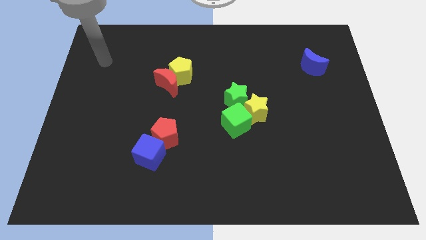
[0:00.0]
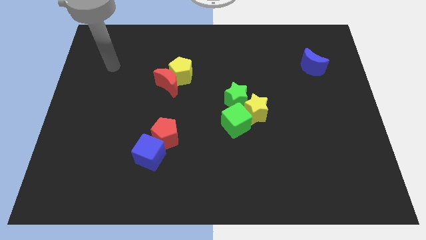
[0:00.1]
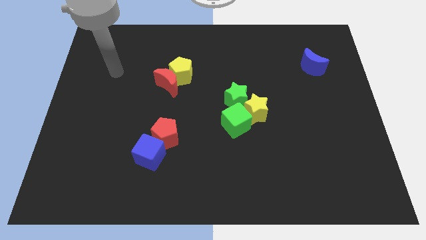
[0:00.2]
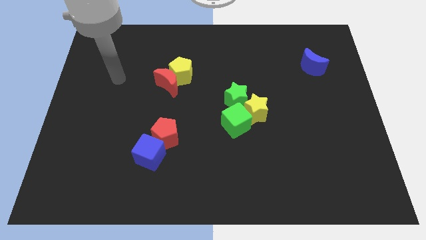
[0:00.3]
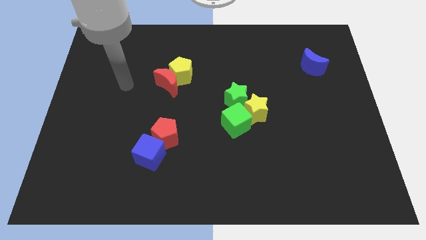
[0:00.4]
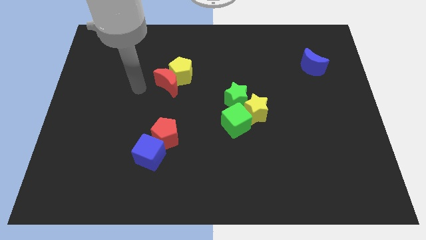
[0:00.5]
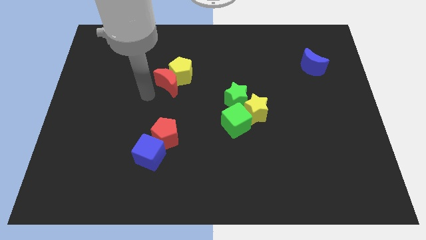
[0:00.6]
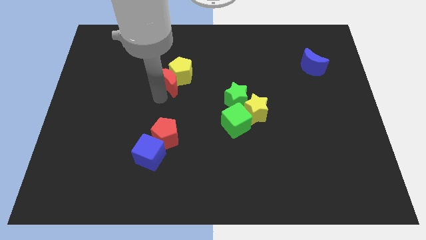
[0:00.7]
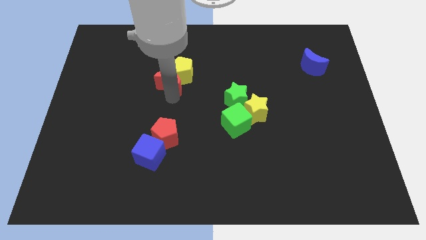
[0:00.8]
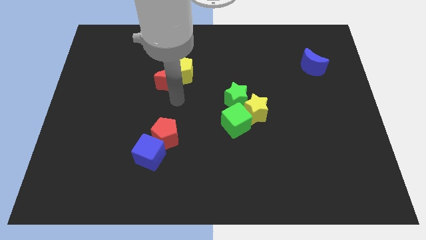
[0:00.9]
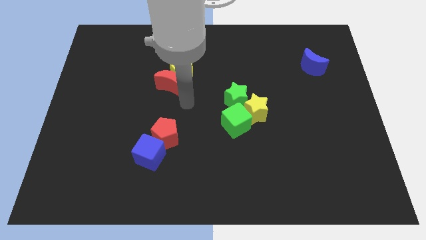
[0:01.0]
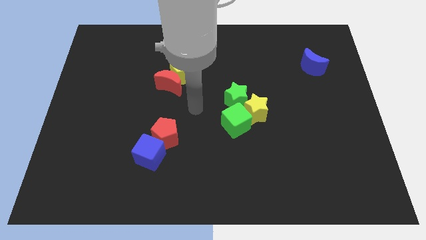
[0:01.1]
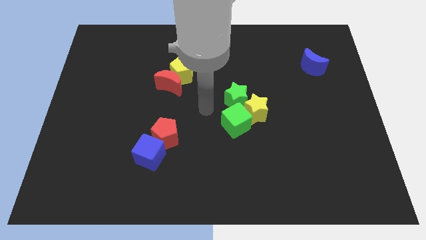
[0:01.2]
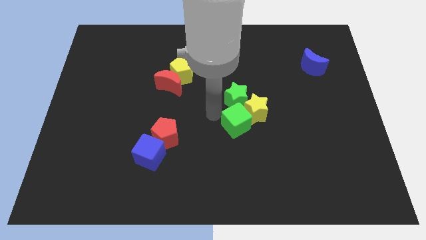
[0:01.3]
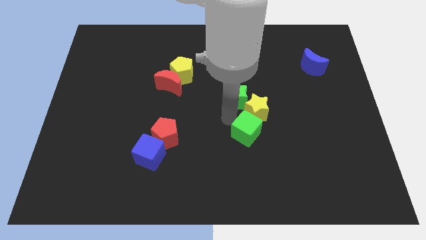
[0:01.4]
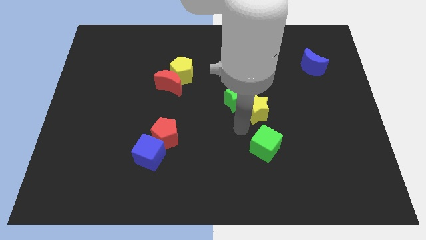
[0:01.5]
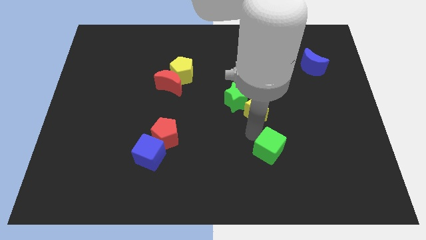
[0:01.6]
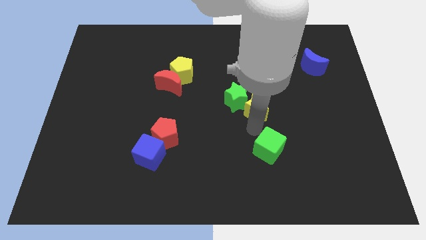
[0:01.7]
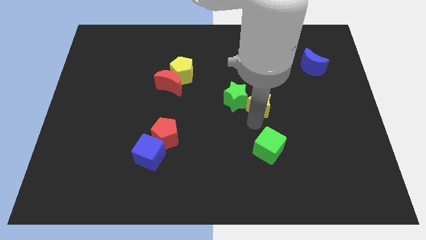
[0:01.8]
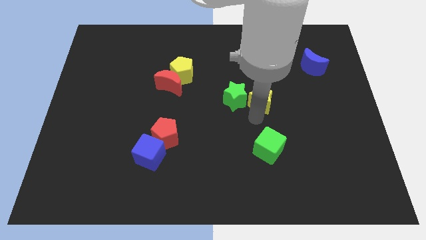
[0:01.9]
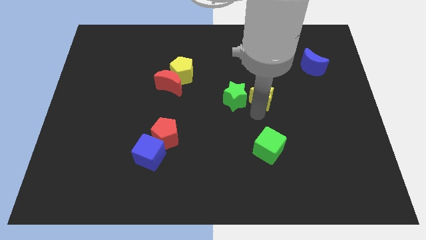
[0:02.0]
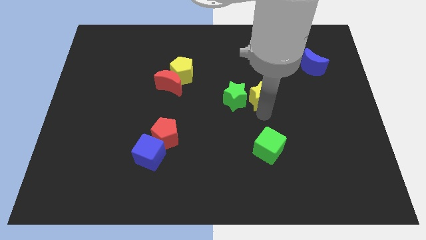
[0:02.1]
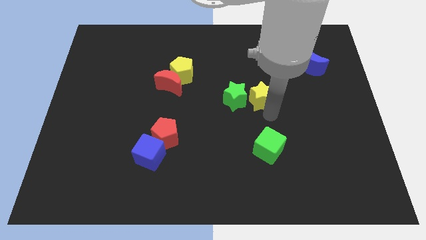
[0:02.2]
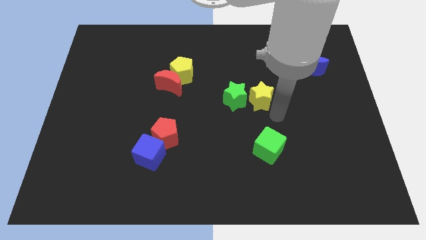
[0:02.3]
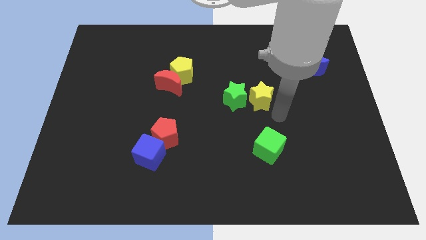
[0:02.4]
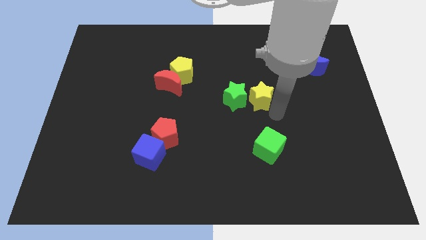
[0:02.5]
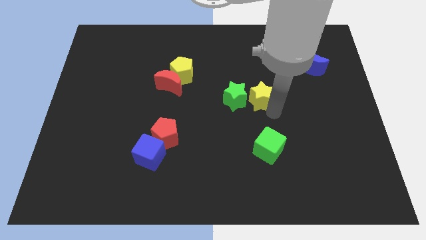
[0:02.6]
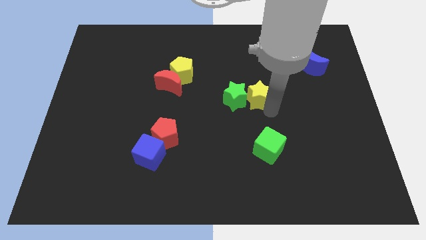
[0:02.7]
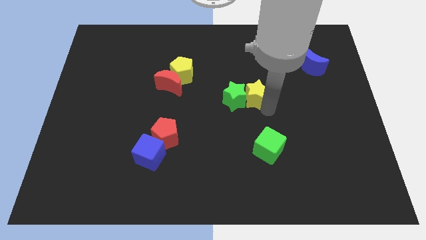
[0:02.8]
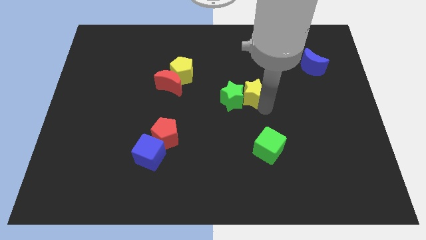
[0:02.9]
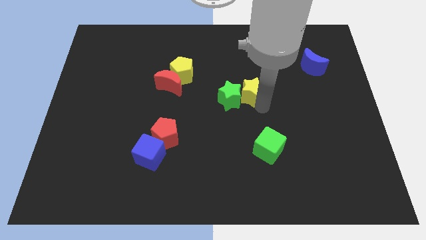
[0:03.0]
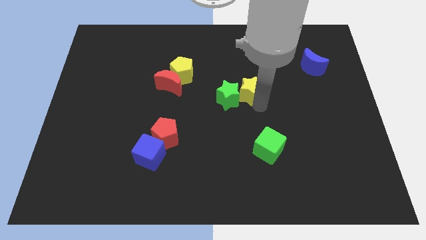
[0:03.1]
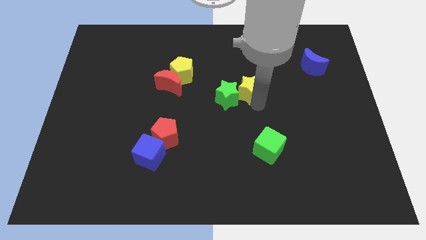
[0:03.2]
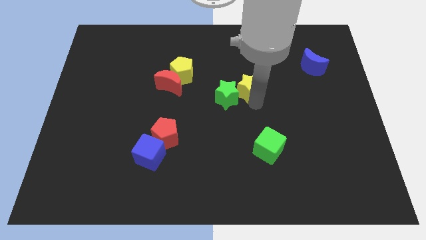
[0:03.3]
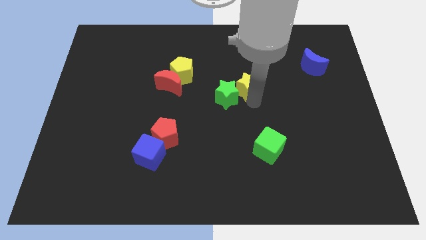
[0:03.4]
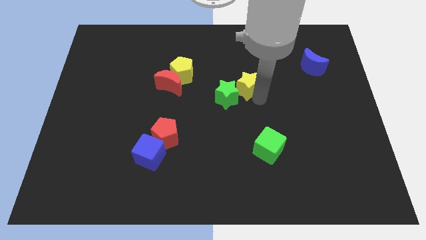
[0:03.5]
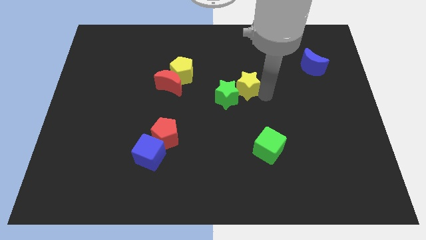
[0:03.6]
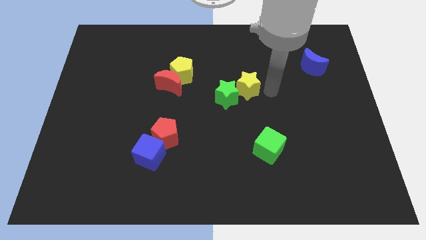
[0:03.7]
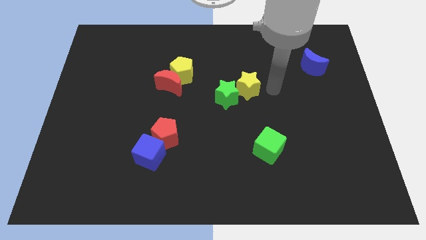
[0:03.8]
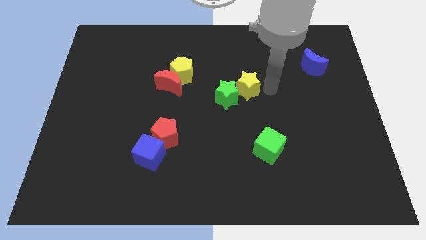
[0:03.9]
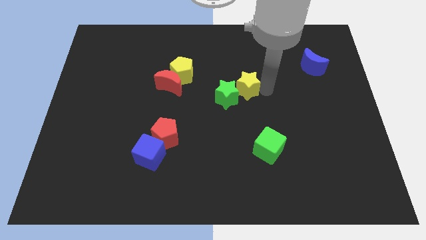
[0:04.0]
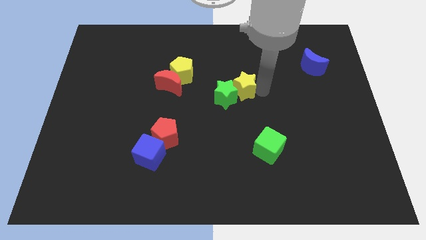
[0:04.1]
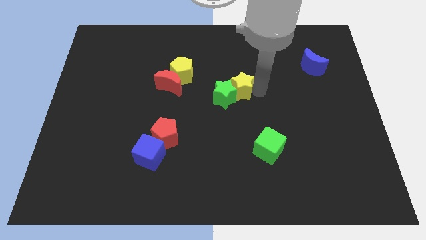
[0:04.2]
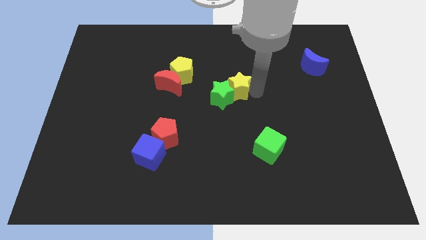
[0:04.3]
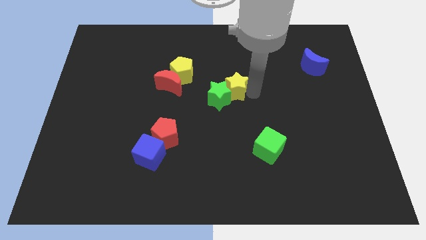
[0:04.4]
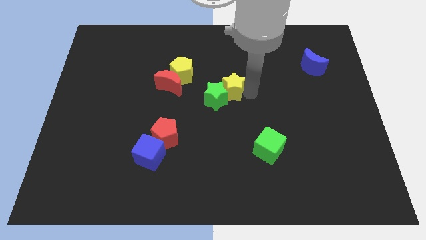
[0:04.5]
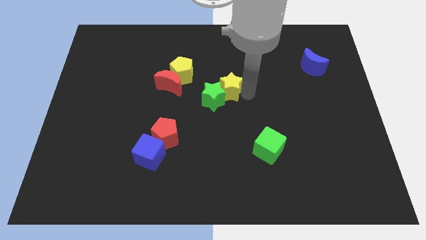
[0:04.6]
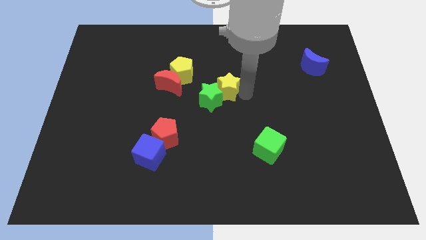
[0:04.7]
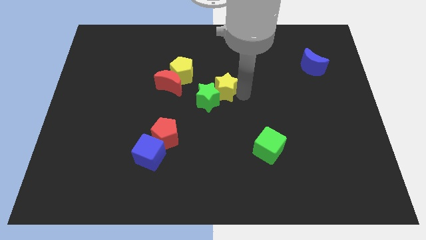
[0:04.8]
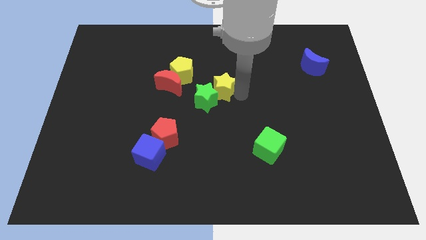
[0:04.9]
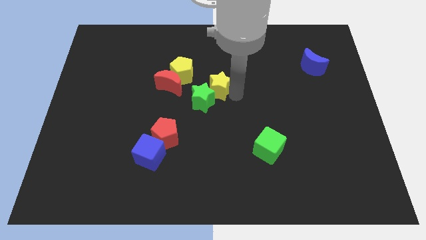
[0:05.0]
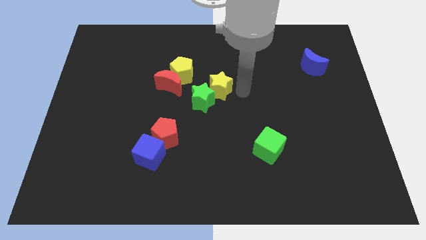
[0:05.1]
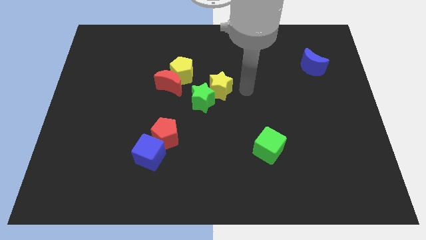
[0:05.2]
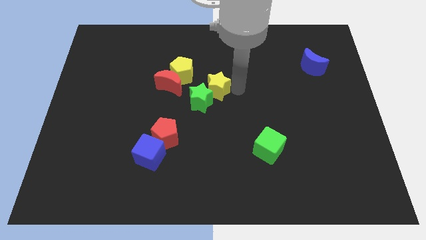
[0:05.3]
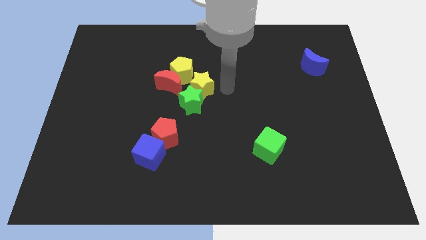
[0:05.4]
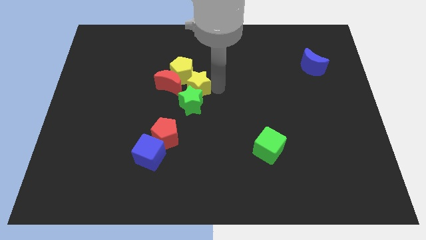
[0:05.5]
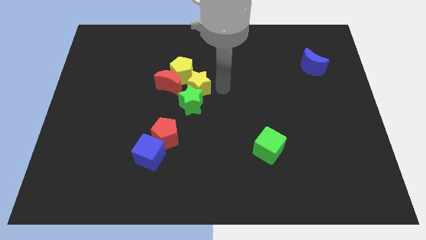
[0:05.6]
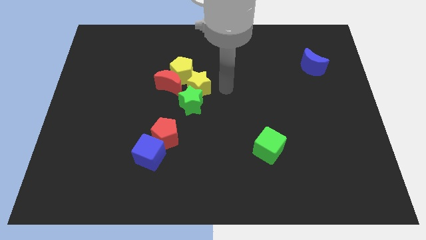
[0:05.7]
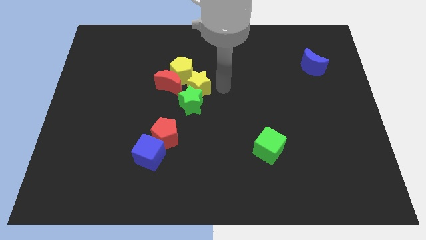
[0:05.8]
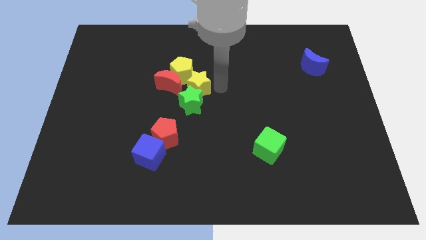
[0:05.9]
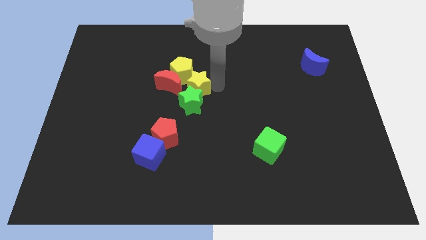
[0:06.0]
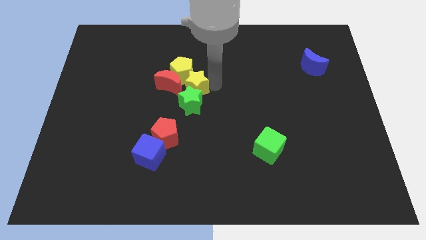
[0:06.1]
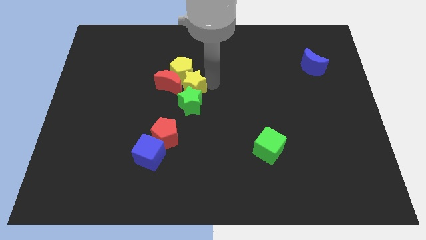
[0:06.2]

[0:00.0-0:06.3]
push the yellow star close to the red moon
